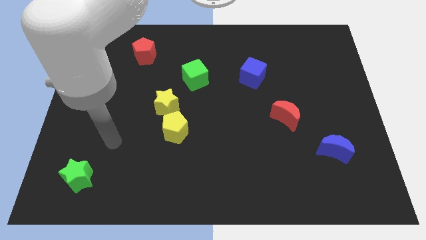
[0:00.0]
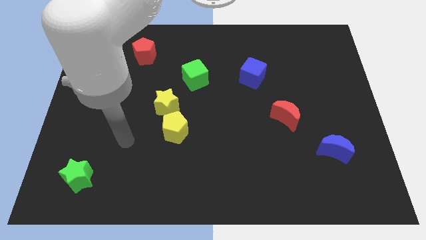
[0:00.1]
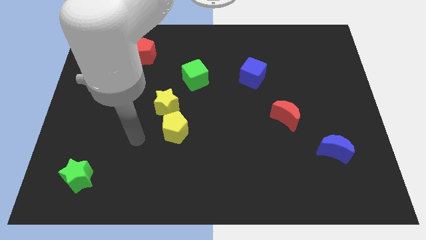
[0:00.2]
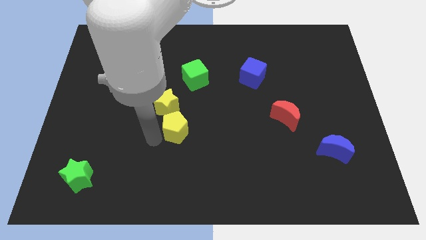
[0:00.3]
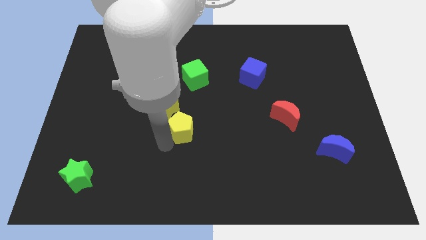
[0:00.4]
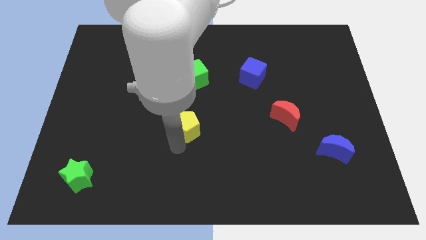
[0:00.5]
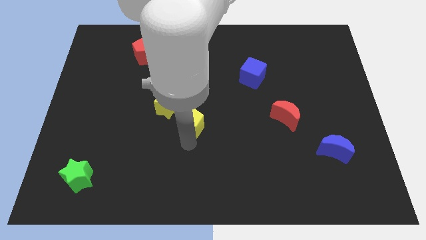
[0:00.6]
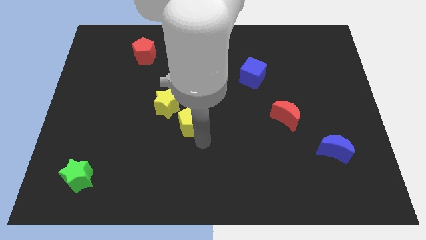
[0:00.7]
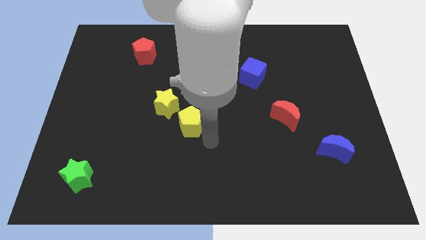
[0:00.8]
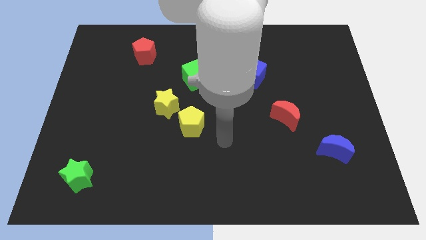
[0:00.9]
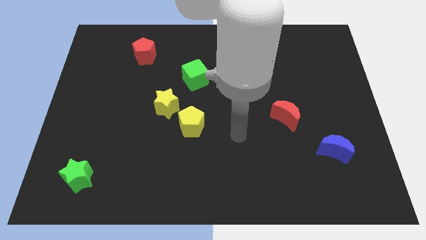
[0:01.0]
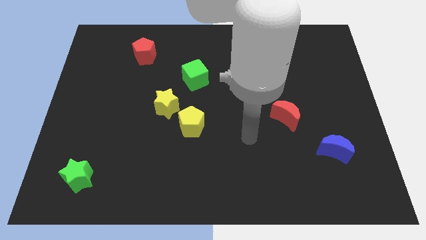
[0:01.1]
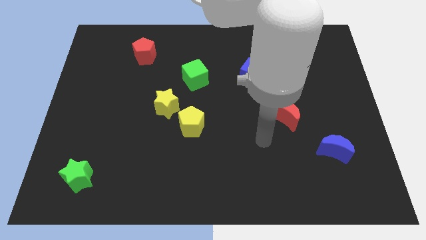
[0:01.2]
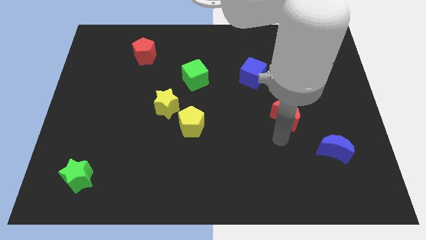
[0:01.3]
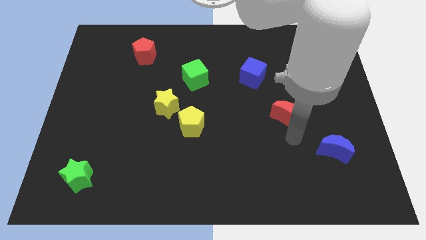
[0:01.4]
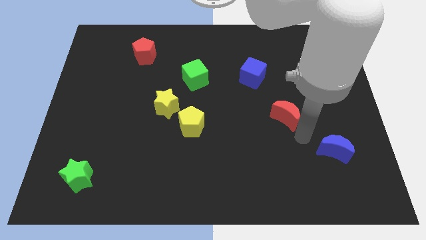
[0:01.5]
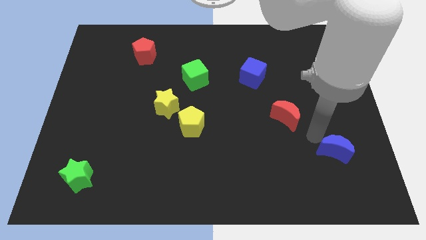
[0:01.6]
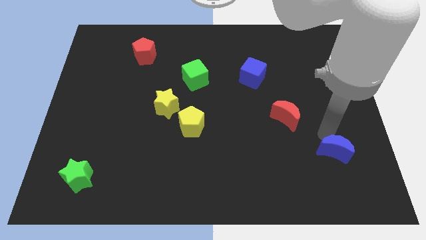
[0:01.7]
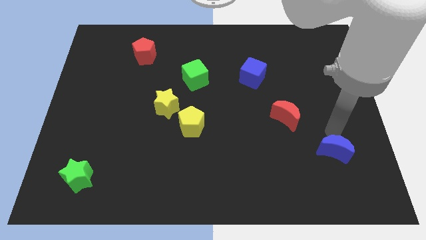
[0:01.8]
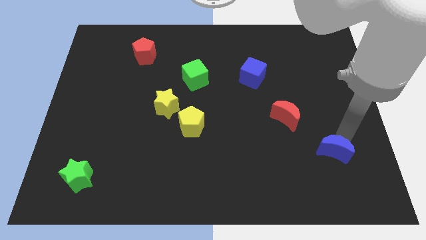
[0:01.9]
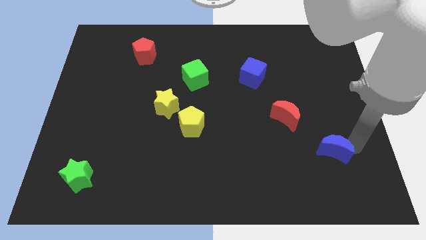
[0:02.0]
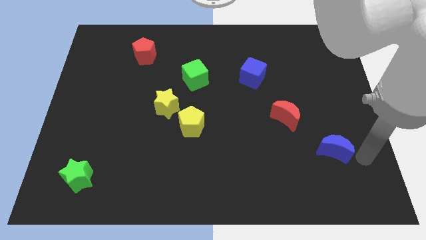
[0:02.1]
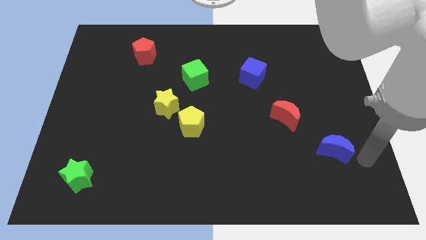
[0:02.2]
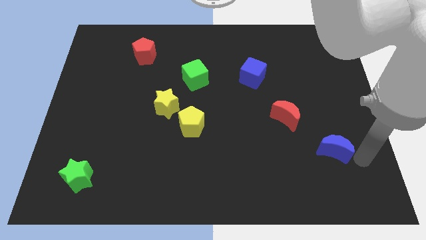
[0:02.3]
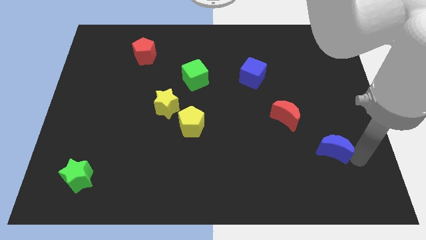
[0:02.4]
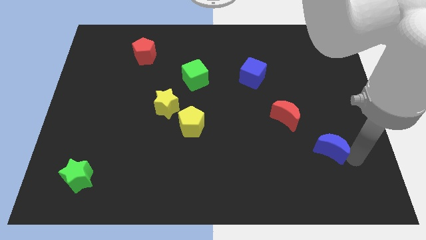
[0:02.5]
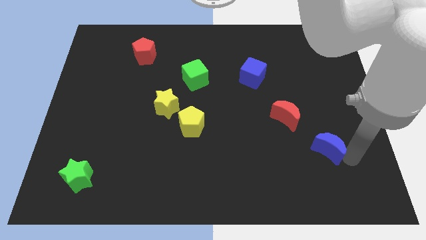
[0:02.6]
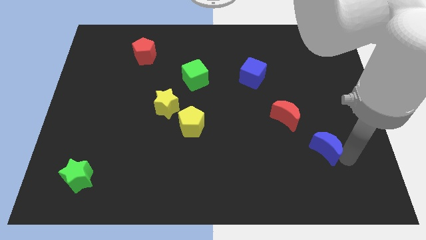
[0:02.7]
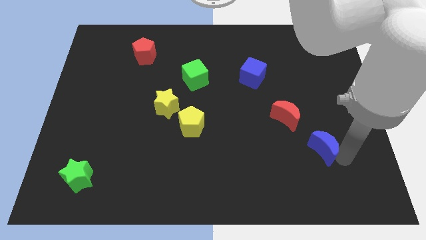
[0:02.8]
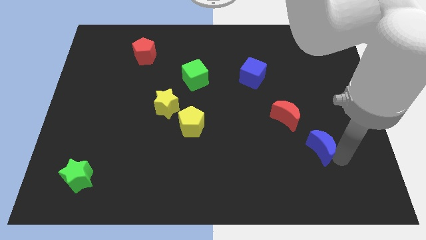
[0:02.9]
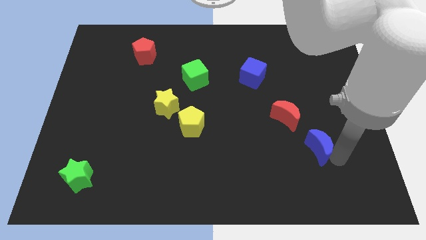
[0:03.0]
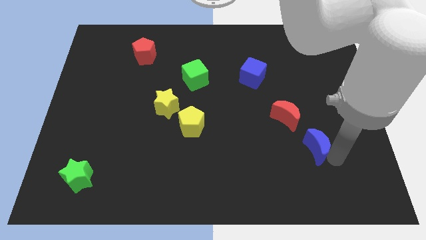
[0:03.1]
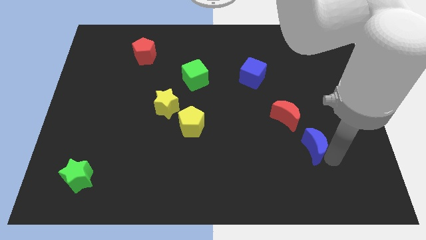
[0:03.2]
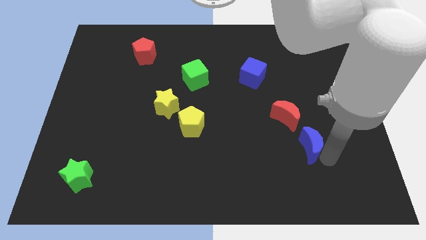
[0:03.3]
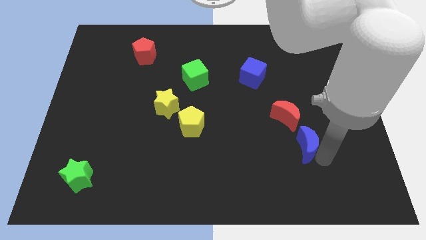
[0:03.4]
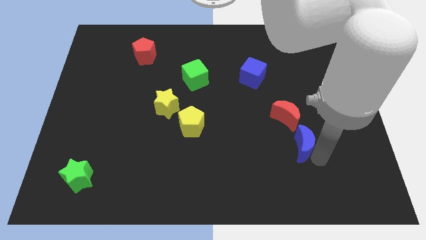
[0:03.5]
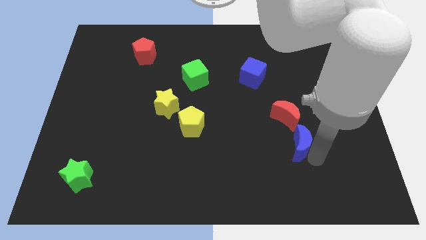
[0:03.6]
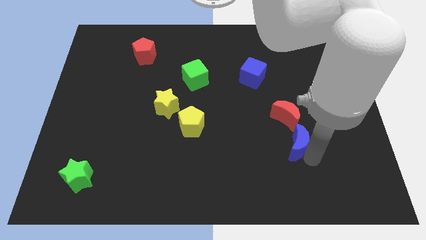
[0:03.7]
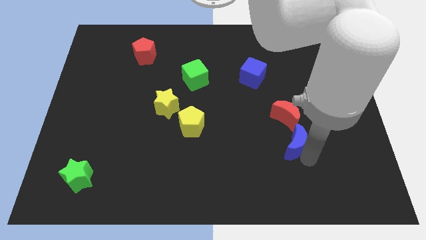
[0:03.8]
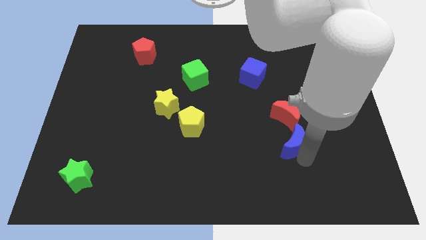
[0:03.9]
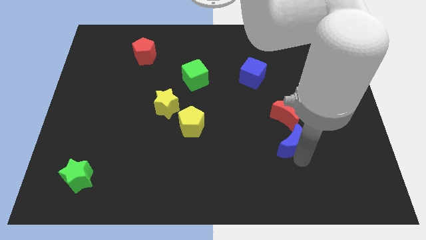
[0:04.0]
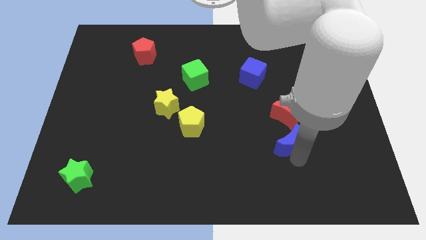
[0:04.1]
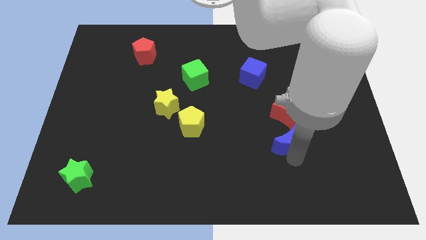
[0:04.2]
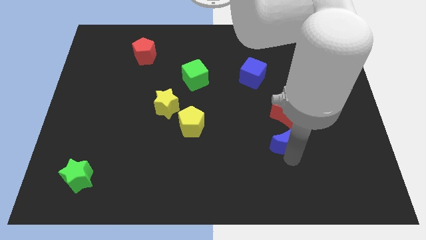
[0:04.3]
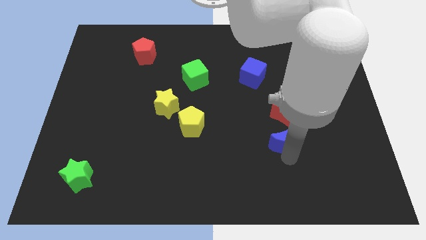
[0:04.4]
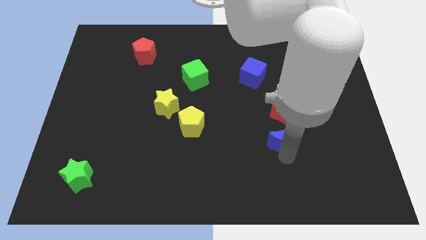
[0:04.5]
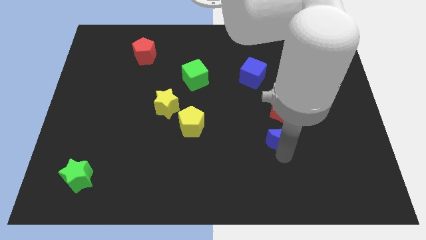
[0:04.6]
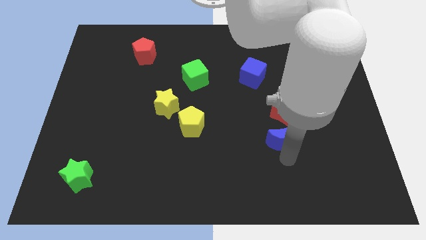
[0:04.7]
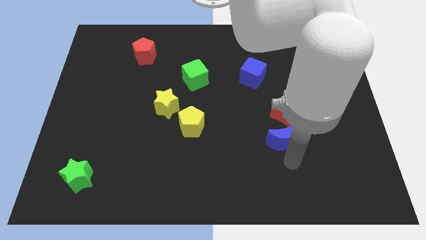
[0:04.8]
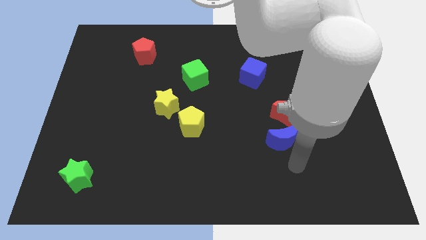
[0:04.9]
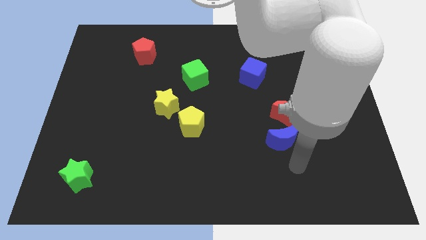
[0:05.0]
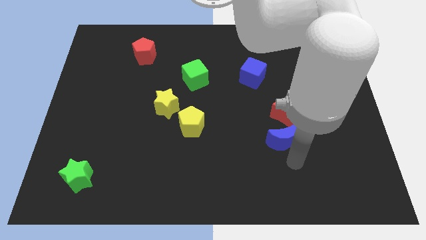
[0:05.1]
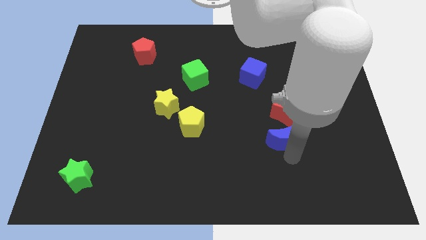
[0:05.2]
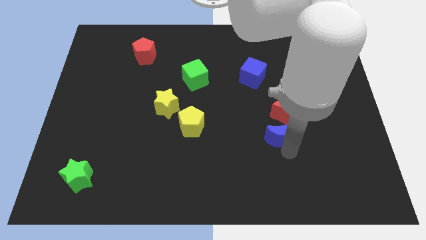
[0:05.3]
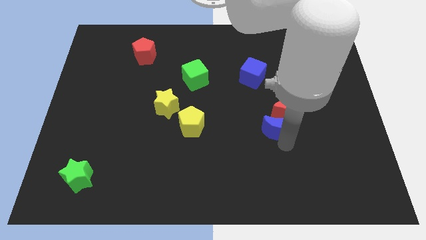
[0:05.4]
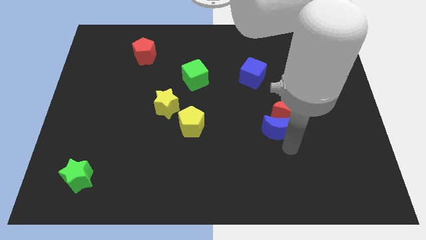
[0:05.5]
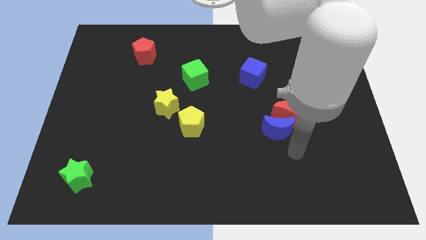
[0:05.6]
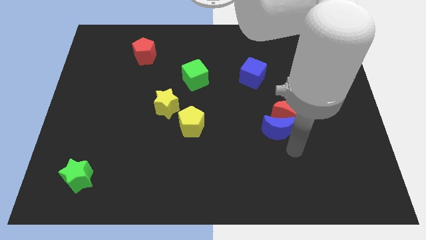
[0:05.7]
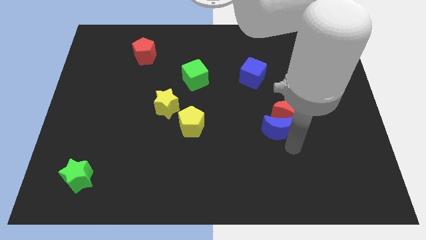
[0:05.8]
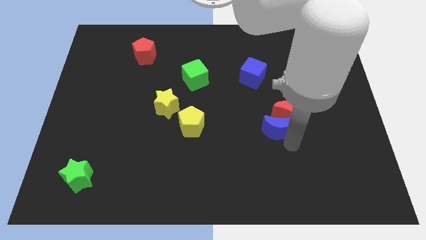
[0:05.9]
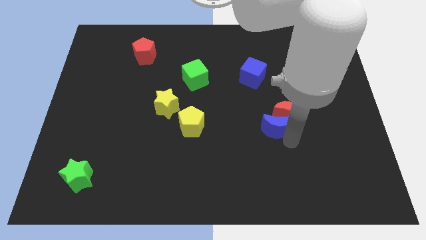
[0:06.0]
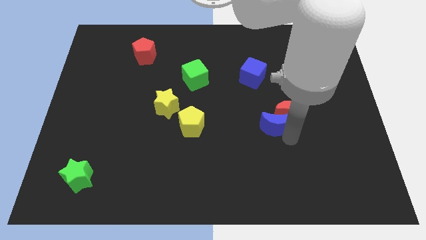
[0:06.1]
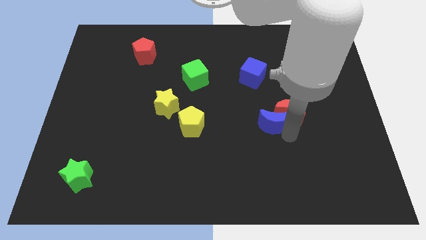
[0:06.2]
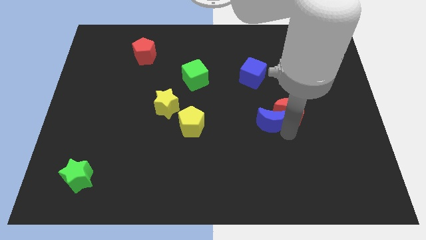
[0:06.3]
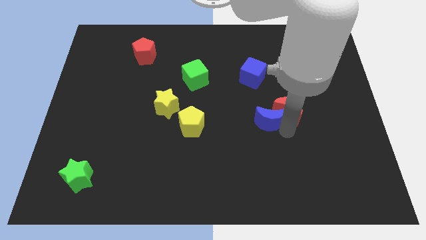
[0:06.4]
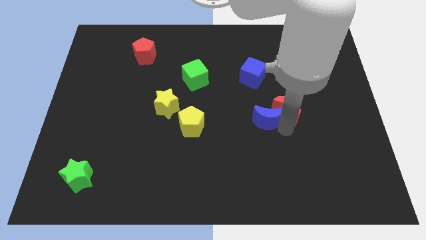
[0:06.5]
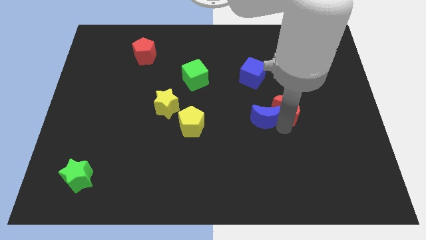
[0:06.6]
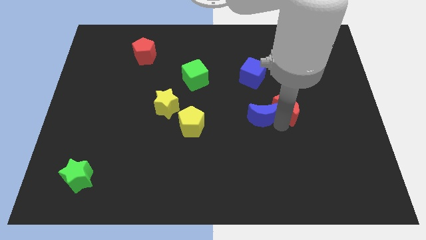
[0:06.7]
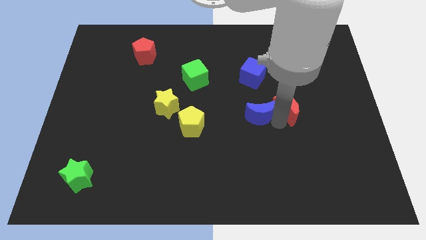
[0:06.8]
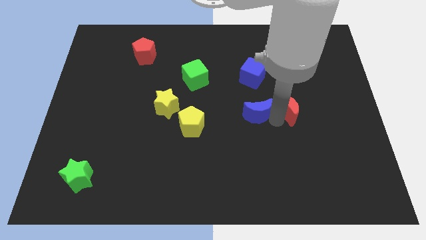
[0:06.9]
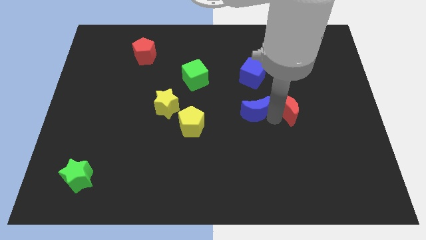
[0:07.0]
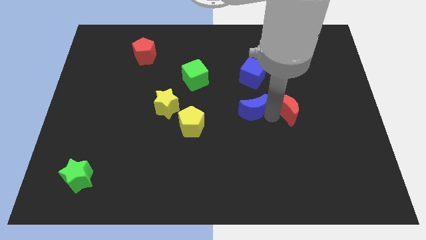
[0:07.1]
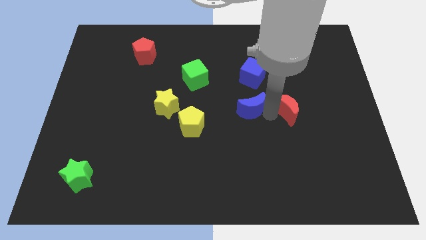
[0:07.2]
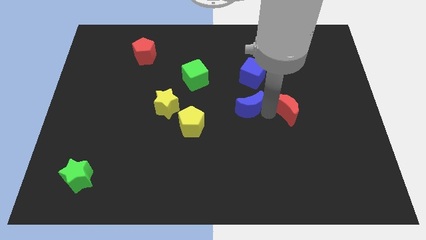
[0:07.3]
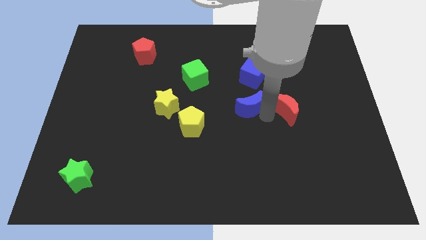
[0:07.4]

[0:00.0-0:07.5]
slide the blue moon up and to the left diagonally

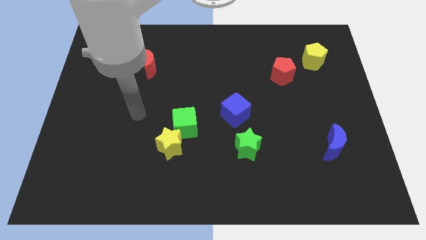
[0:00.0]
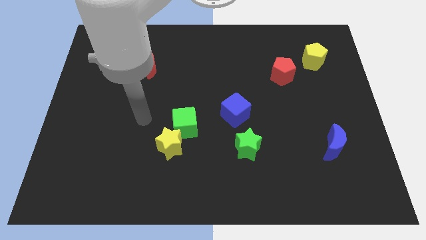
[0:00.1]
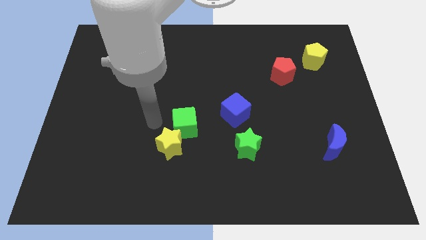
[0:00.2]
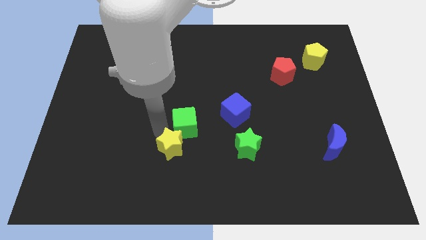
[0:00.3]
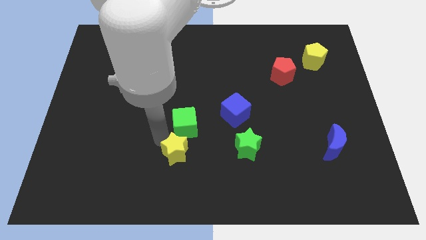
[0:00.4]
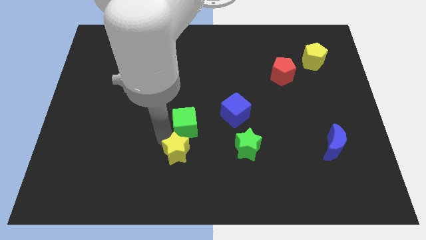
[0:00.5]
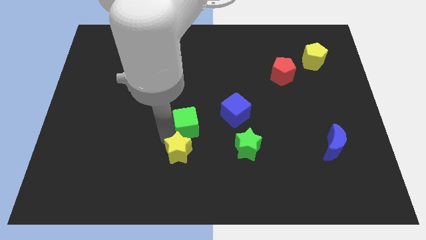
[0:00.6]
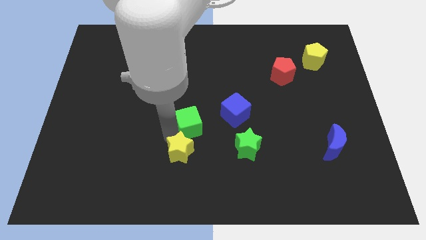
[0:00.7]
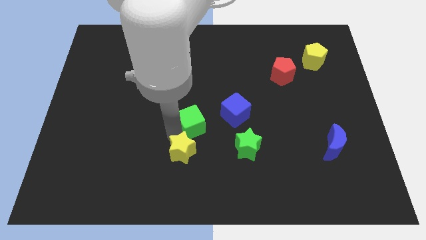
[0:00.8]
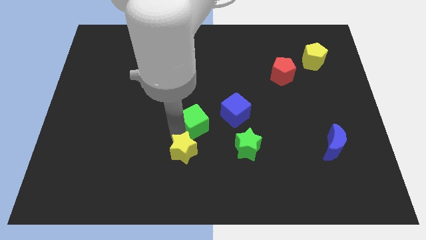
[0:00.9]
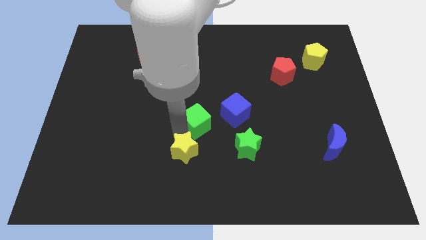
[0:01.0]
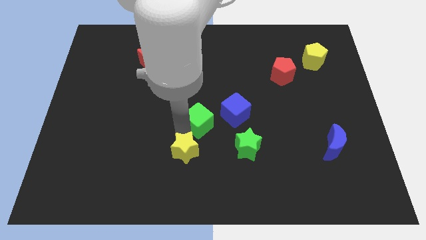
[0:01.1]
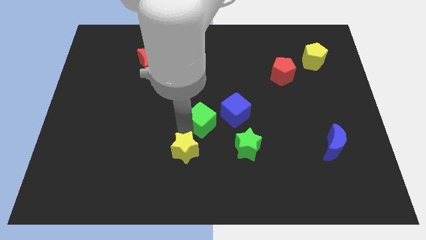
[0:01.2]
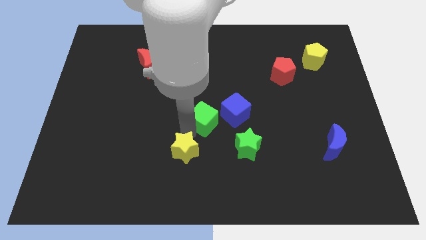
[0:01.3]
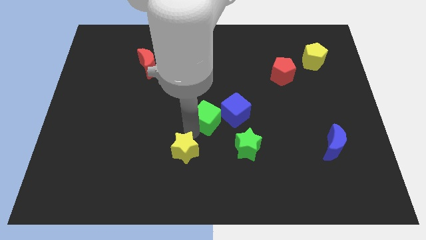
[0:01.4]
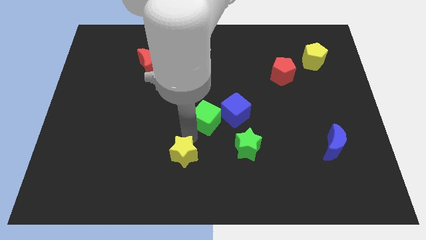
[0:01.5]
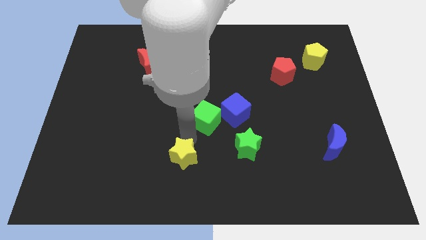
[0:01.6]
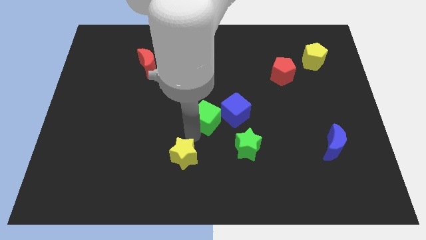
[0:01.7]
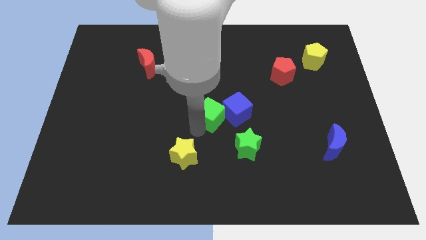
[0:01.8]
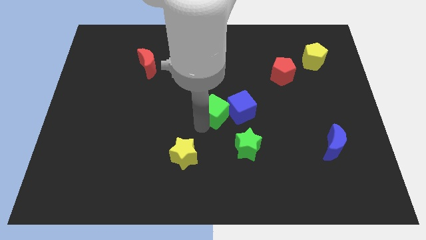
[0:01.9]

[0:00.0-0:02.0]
push the green cube a bit upwards and right diagonally
